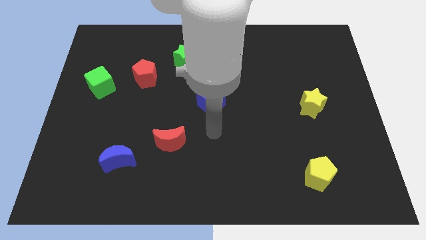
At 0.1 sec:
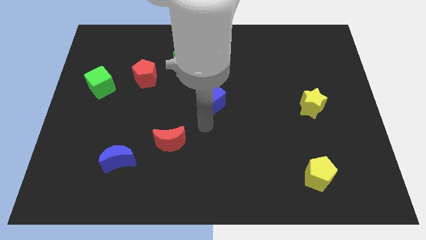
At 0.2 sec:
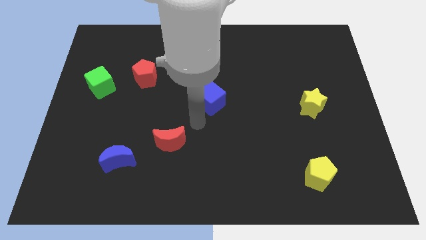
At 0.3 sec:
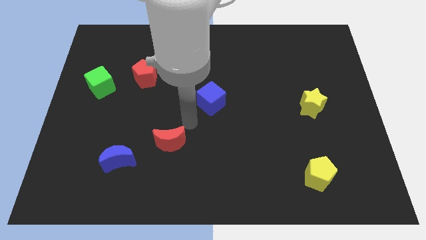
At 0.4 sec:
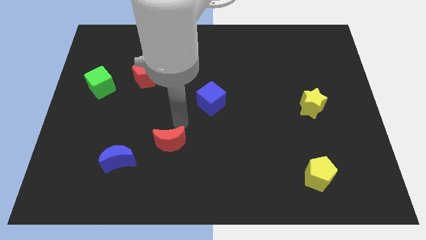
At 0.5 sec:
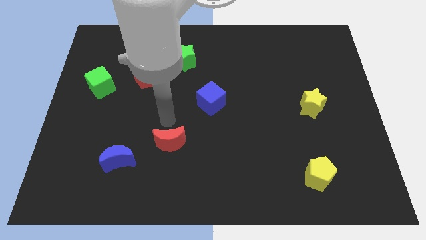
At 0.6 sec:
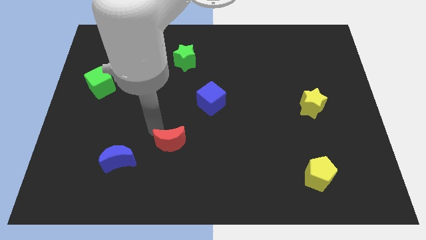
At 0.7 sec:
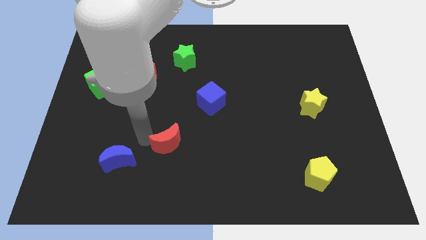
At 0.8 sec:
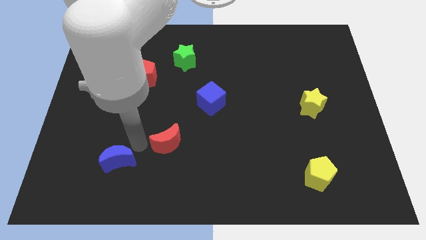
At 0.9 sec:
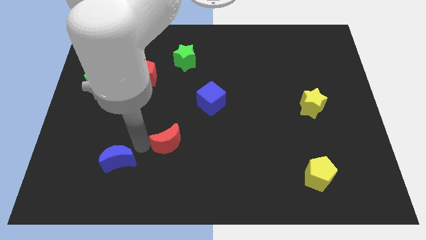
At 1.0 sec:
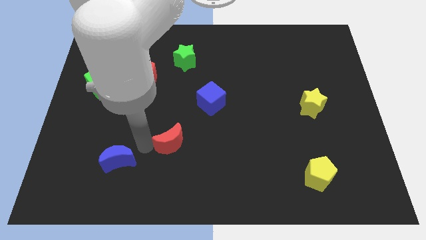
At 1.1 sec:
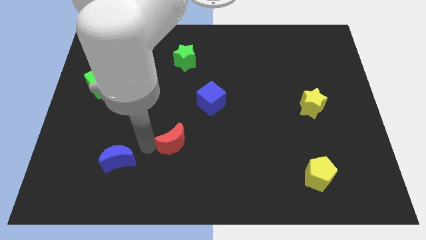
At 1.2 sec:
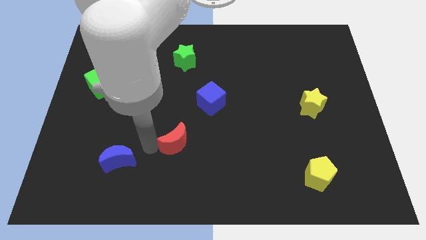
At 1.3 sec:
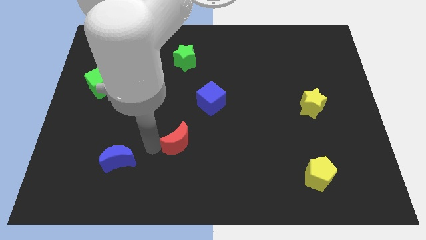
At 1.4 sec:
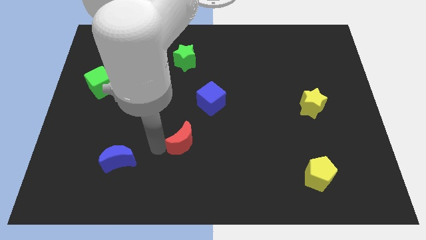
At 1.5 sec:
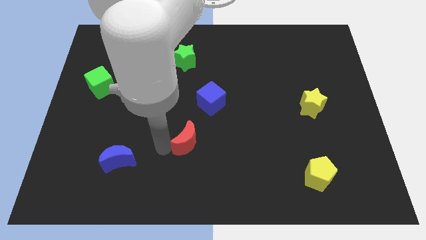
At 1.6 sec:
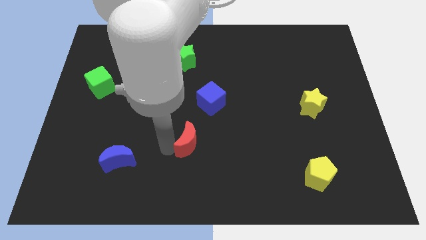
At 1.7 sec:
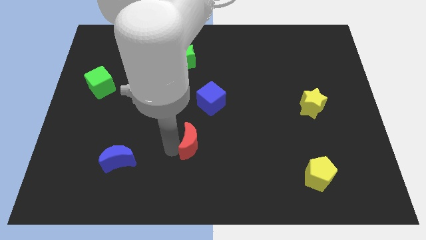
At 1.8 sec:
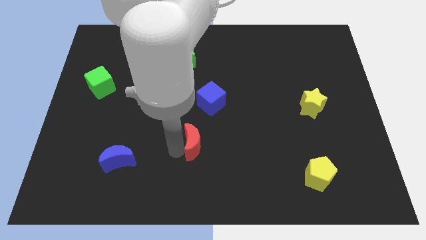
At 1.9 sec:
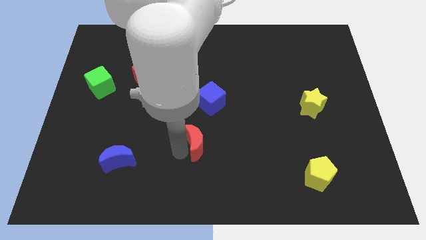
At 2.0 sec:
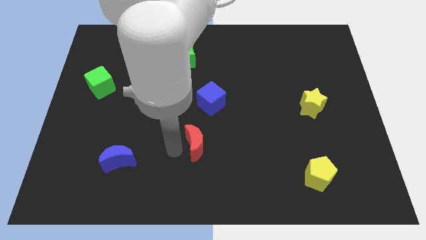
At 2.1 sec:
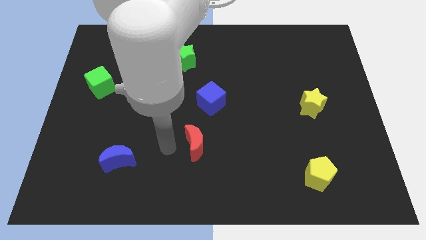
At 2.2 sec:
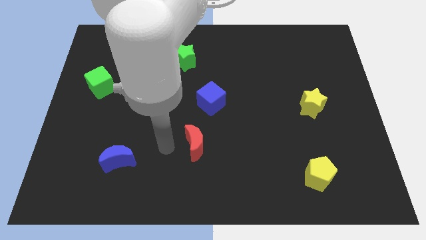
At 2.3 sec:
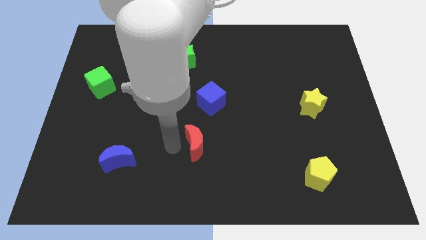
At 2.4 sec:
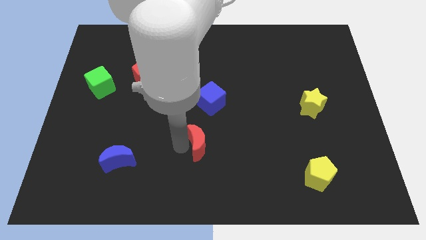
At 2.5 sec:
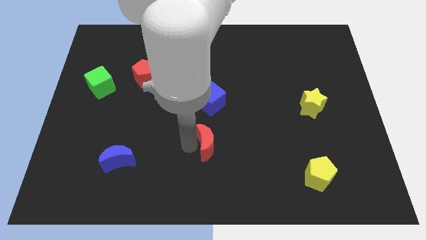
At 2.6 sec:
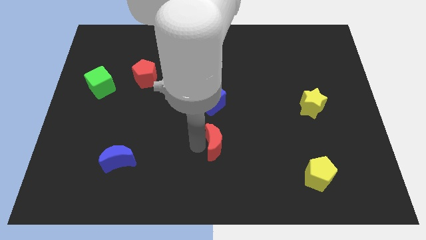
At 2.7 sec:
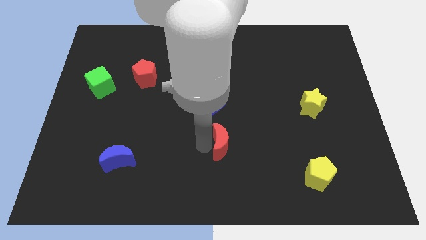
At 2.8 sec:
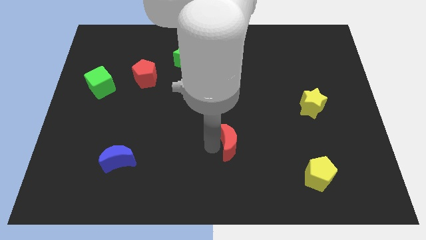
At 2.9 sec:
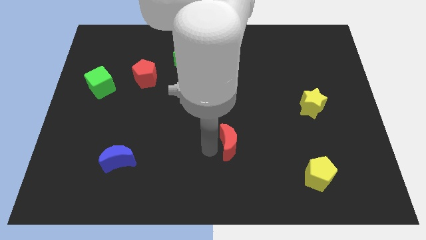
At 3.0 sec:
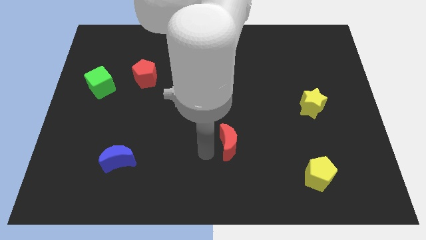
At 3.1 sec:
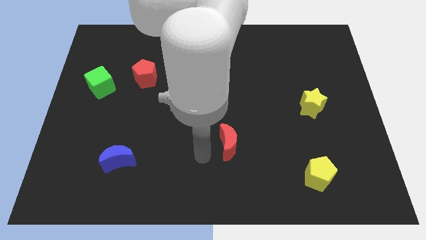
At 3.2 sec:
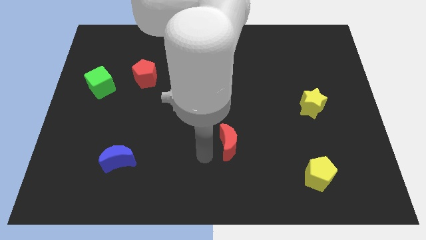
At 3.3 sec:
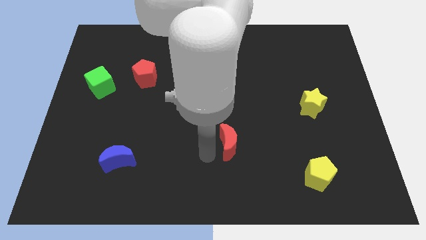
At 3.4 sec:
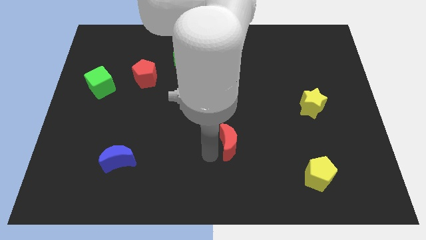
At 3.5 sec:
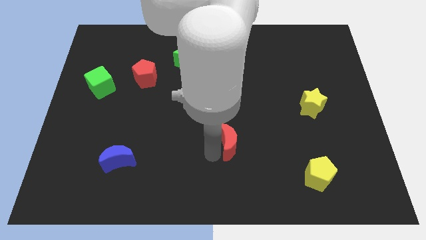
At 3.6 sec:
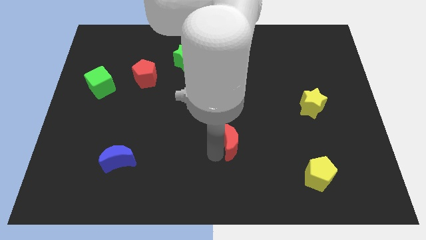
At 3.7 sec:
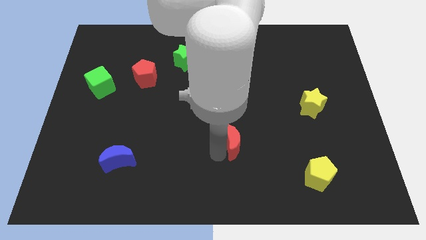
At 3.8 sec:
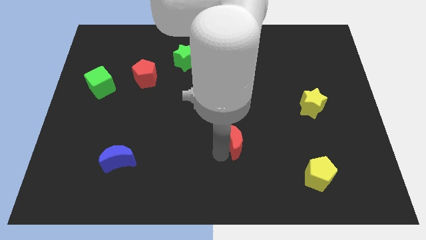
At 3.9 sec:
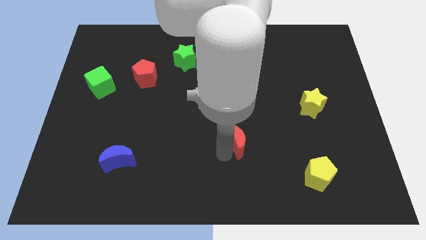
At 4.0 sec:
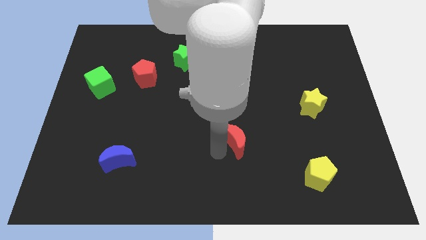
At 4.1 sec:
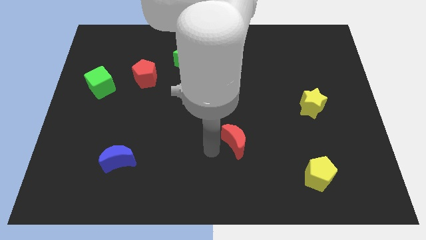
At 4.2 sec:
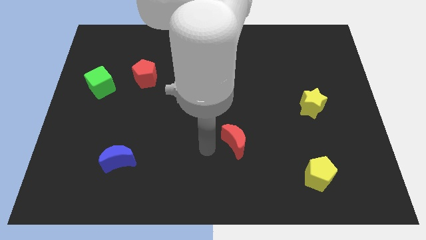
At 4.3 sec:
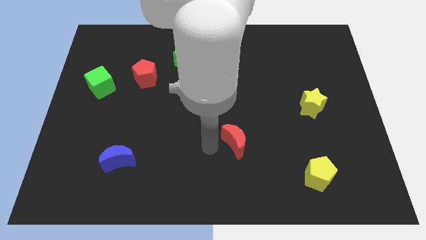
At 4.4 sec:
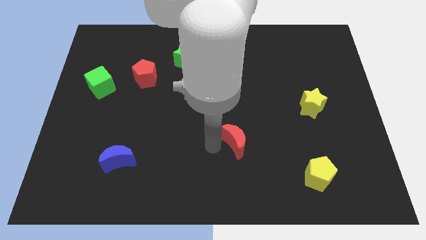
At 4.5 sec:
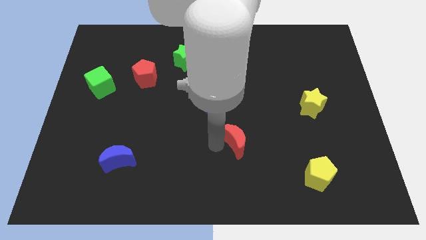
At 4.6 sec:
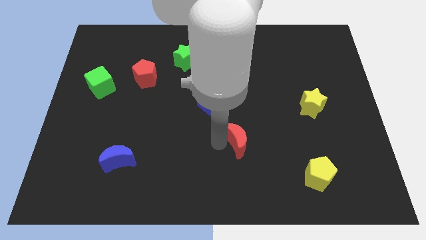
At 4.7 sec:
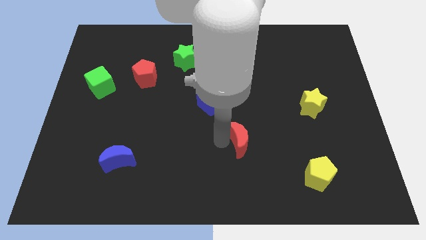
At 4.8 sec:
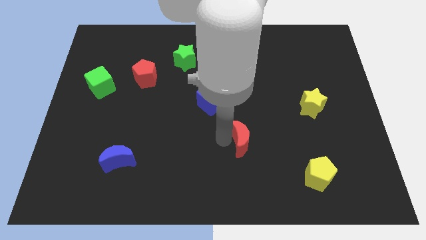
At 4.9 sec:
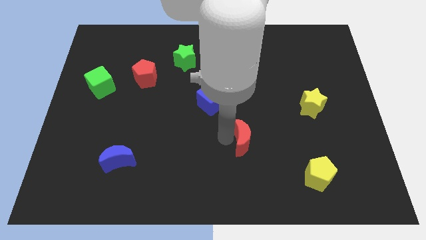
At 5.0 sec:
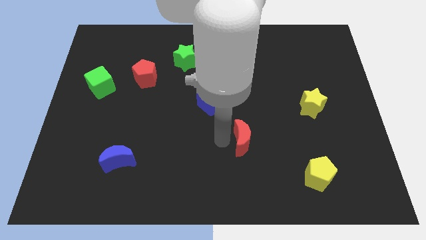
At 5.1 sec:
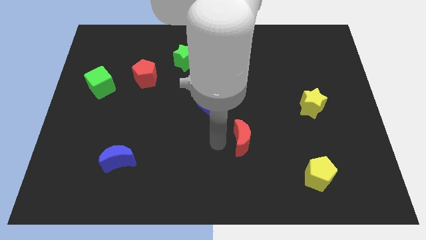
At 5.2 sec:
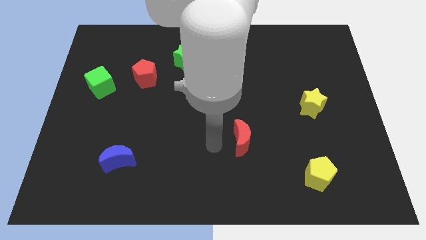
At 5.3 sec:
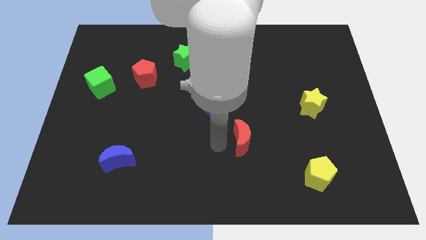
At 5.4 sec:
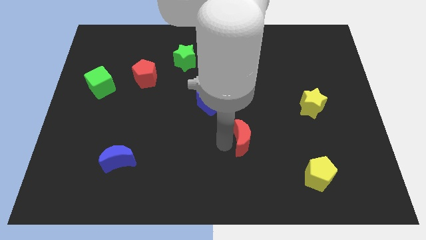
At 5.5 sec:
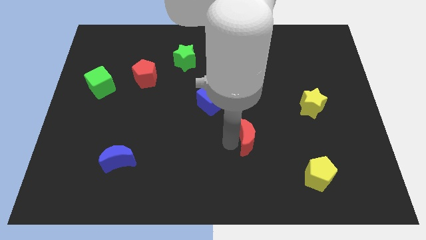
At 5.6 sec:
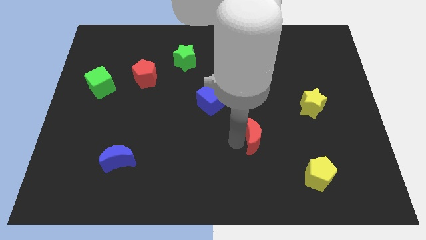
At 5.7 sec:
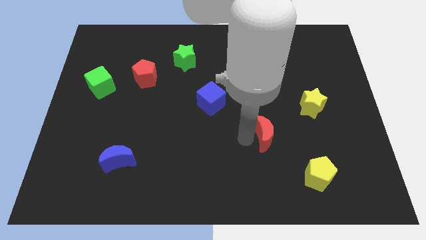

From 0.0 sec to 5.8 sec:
push the red moon to the right

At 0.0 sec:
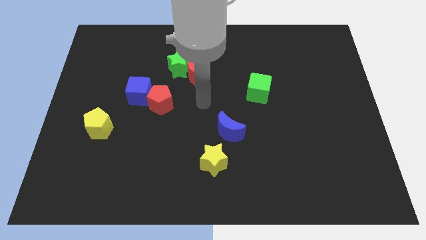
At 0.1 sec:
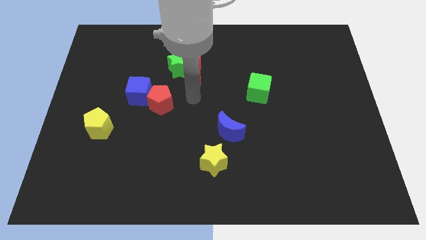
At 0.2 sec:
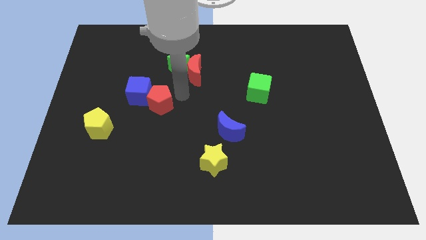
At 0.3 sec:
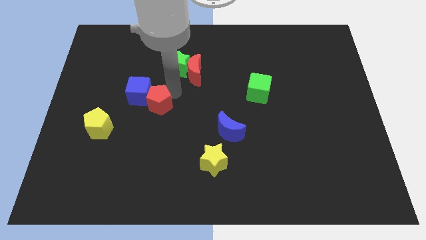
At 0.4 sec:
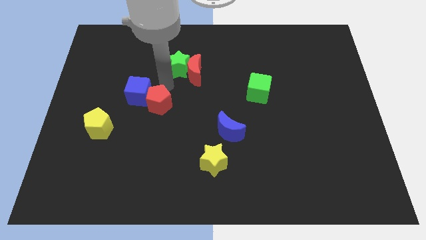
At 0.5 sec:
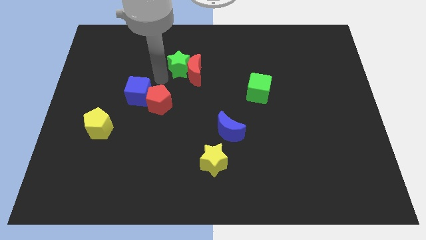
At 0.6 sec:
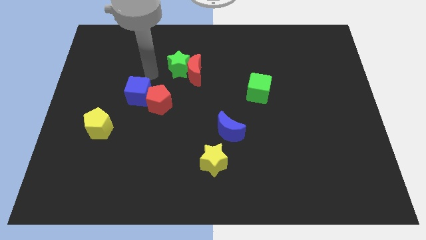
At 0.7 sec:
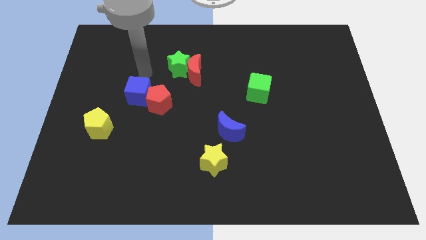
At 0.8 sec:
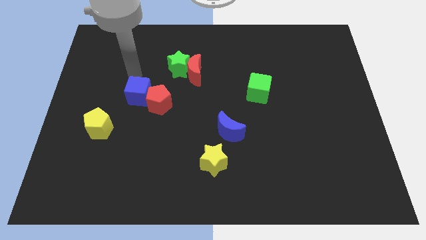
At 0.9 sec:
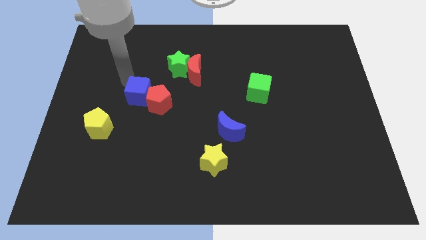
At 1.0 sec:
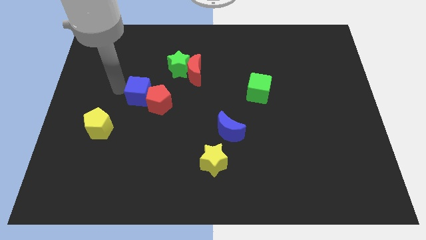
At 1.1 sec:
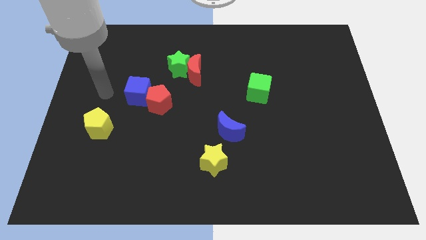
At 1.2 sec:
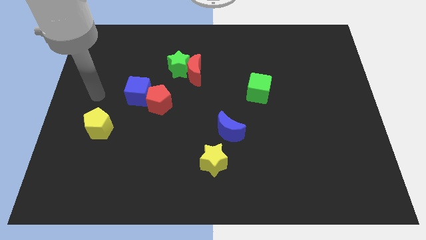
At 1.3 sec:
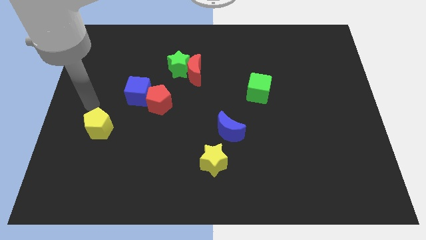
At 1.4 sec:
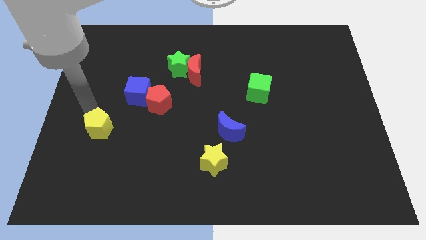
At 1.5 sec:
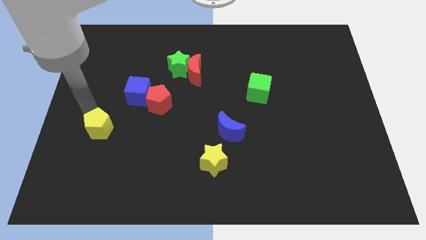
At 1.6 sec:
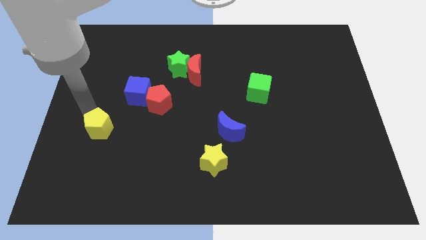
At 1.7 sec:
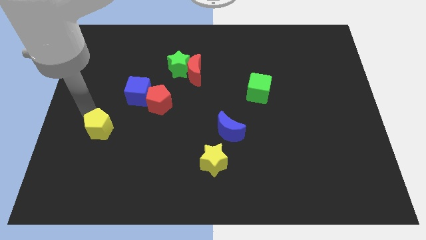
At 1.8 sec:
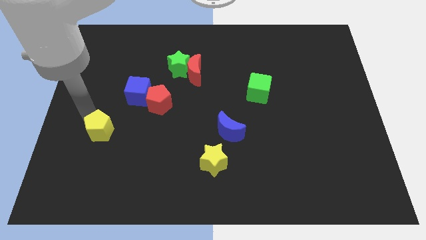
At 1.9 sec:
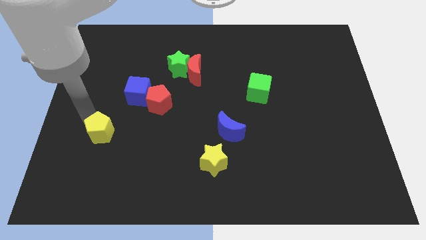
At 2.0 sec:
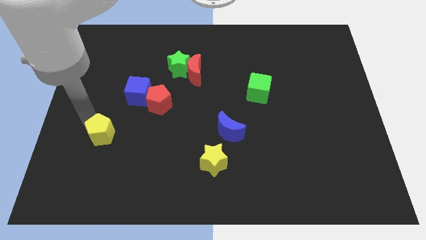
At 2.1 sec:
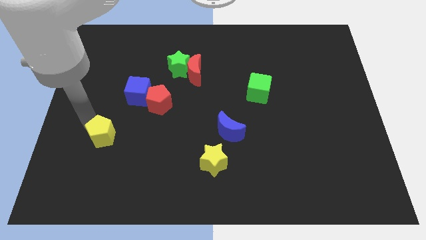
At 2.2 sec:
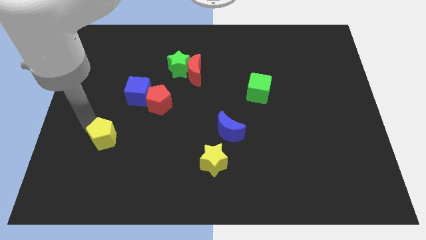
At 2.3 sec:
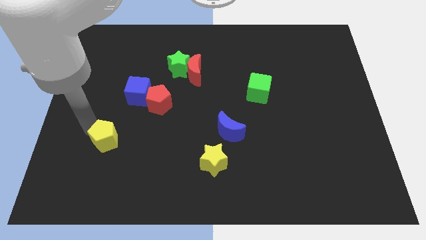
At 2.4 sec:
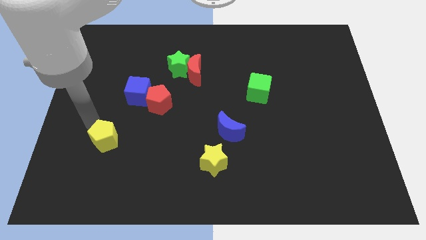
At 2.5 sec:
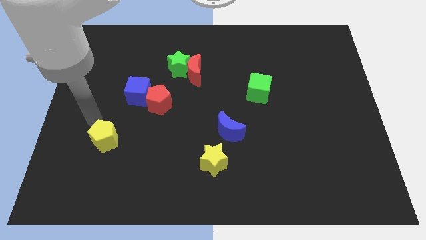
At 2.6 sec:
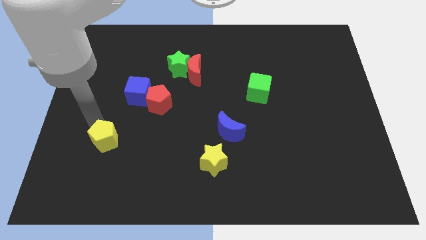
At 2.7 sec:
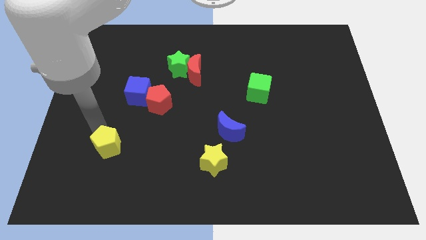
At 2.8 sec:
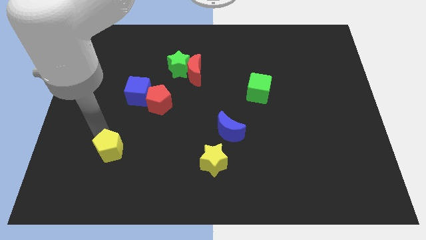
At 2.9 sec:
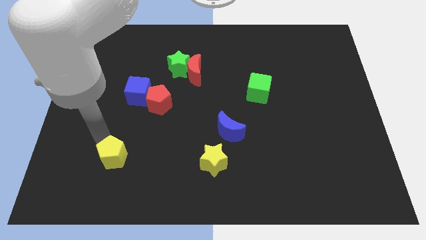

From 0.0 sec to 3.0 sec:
slide the yellow pentagon down and right diagonally somewhat
